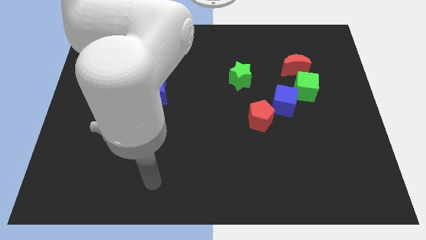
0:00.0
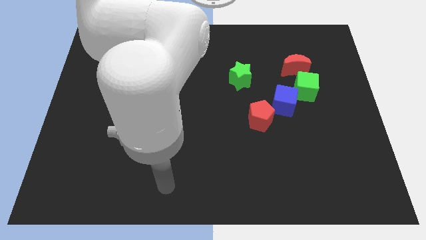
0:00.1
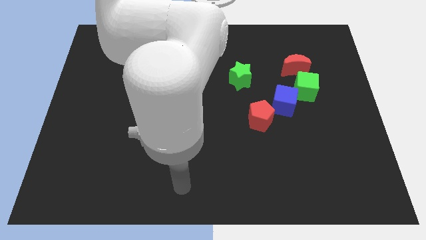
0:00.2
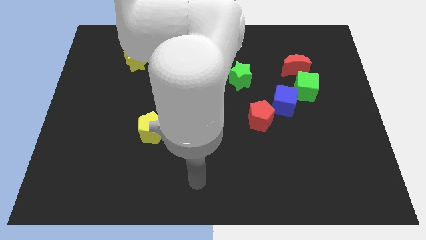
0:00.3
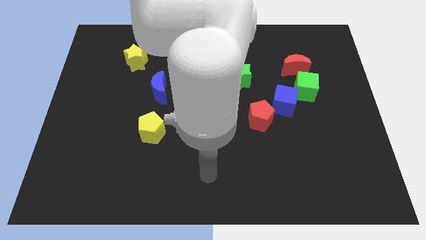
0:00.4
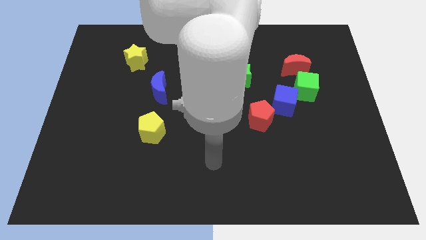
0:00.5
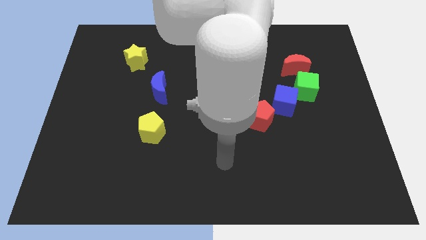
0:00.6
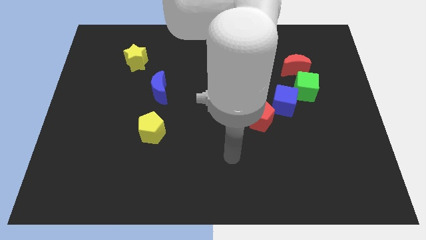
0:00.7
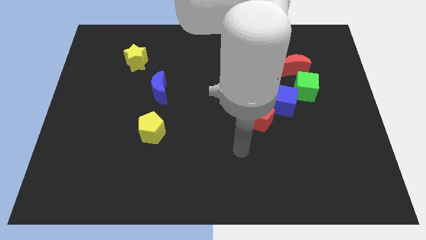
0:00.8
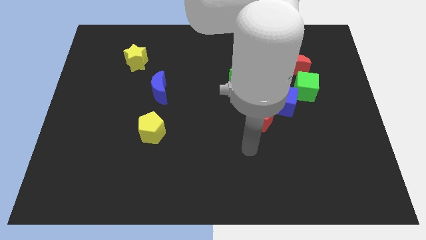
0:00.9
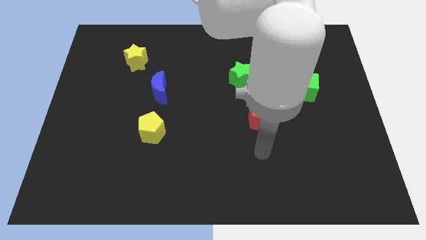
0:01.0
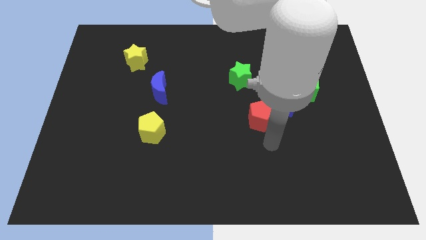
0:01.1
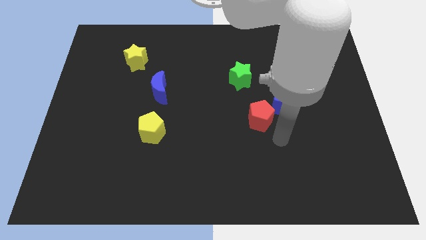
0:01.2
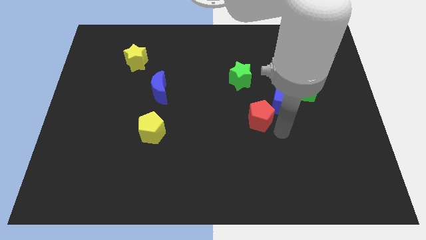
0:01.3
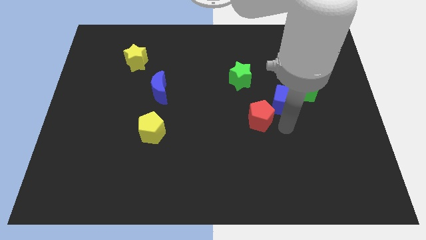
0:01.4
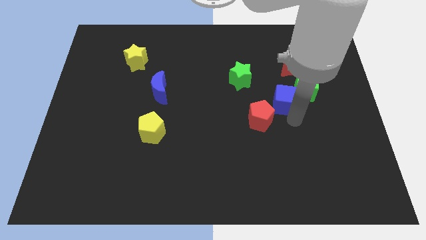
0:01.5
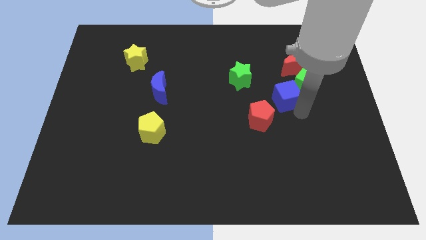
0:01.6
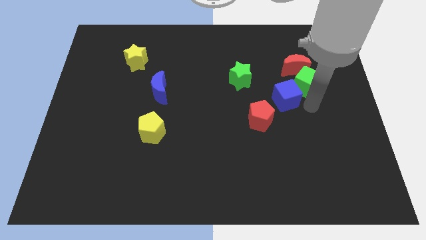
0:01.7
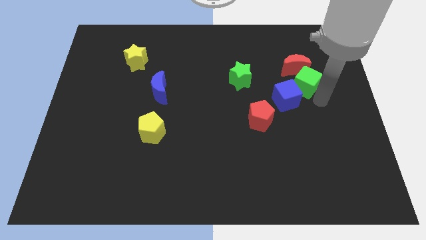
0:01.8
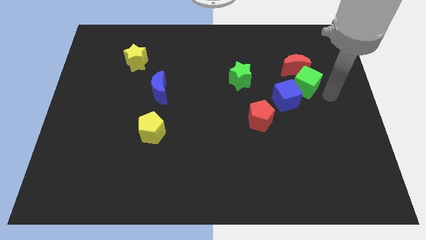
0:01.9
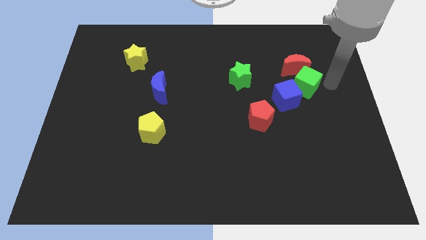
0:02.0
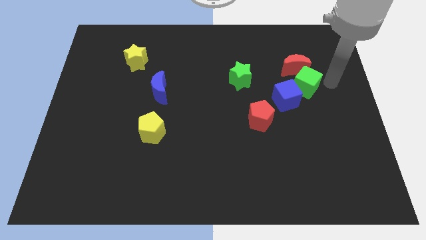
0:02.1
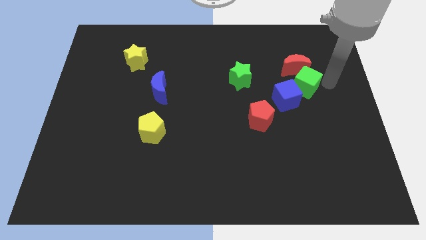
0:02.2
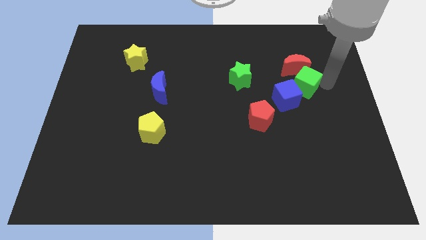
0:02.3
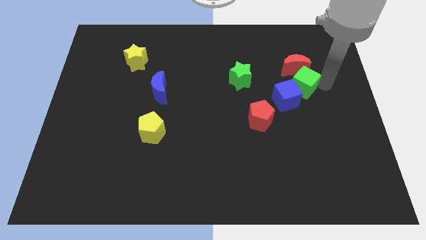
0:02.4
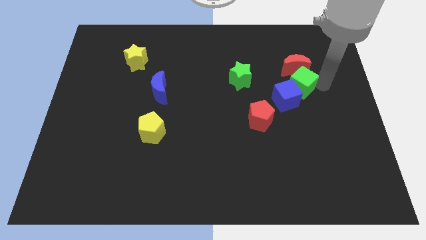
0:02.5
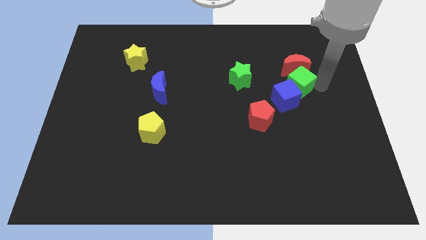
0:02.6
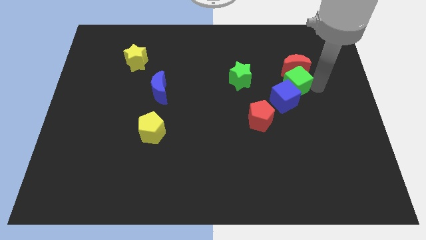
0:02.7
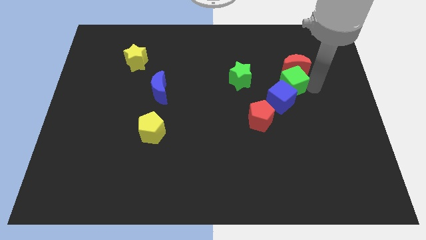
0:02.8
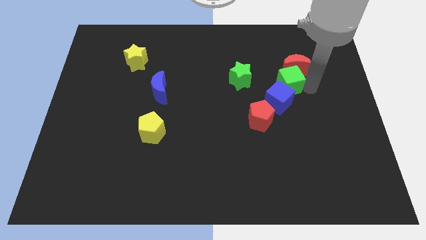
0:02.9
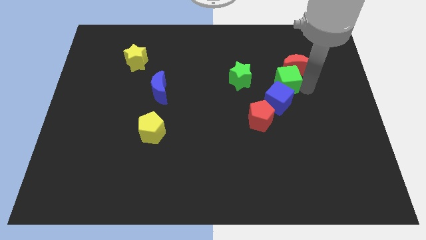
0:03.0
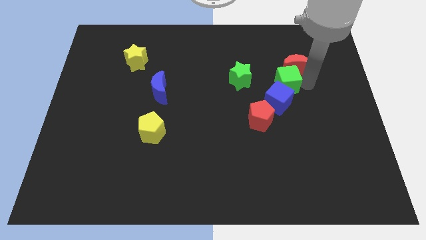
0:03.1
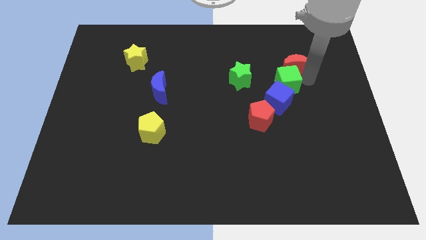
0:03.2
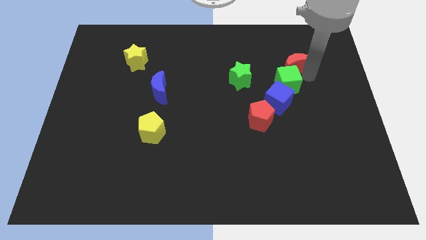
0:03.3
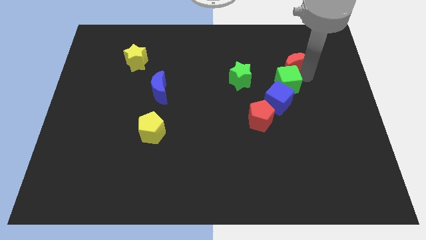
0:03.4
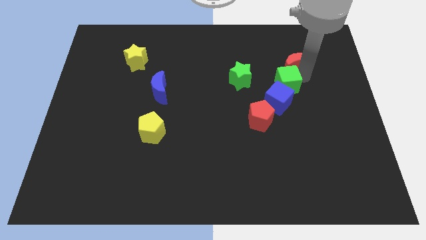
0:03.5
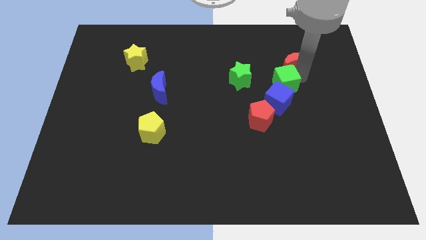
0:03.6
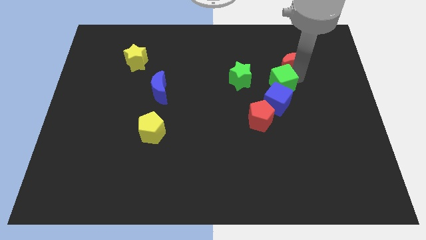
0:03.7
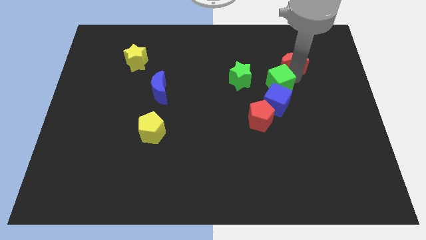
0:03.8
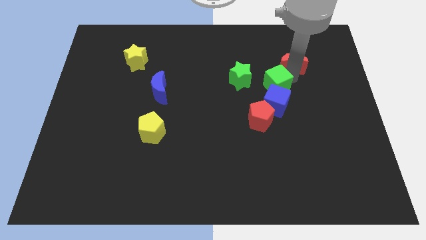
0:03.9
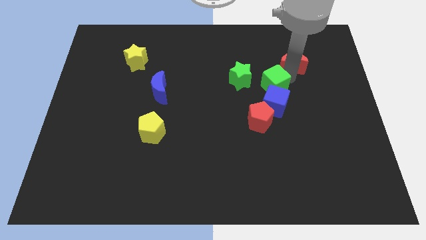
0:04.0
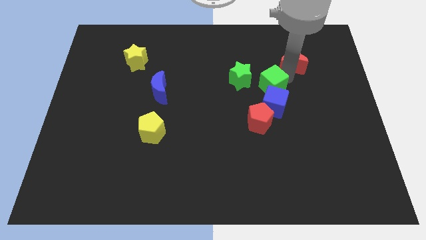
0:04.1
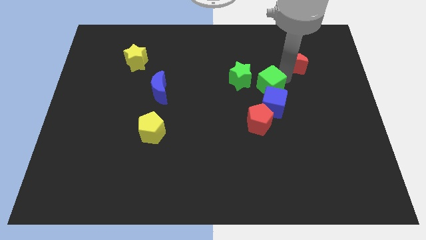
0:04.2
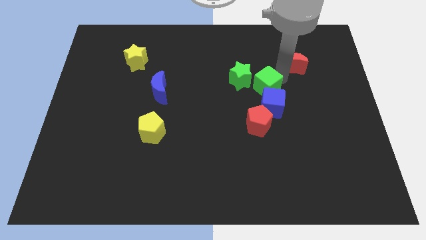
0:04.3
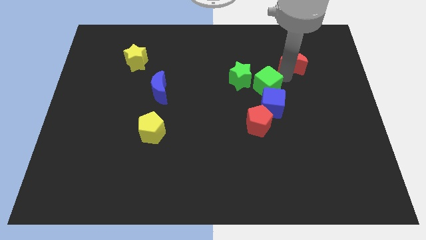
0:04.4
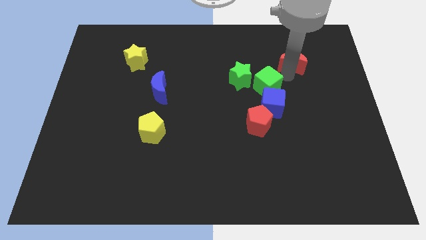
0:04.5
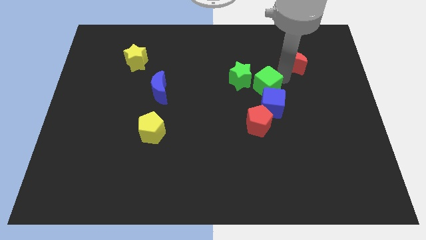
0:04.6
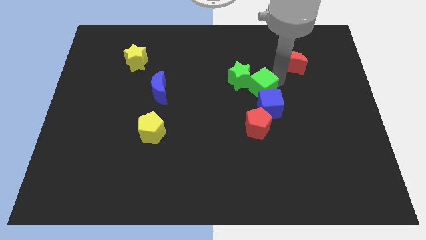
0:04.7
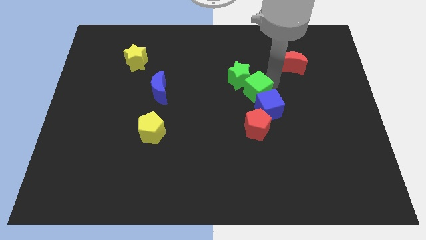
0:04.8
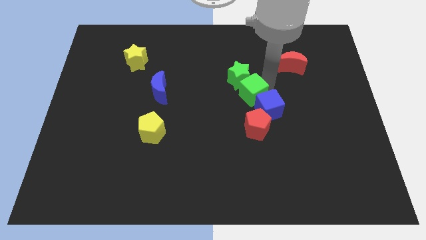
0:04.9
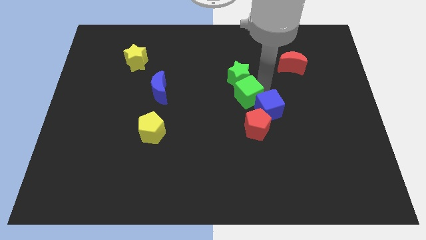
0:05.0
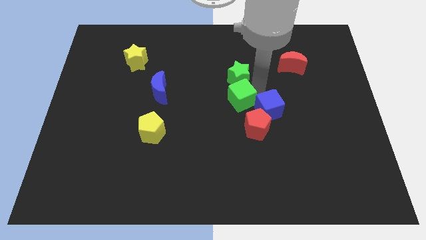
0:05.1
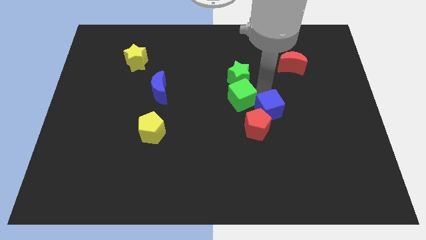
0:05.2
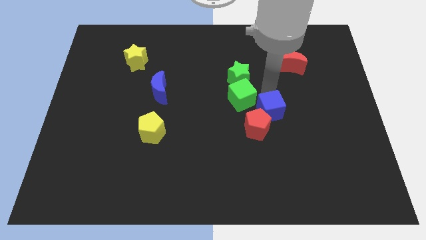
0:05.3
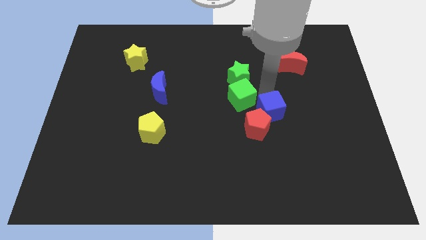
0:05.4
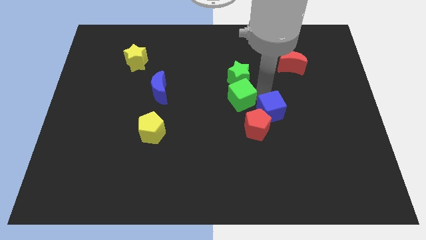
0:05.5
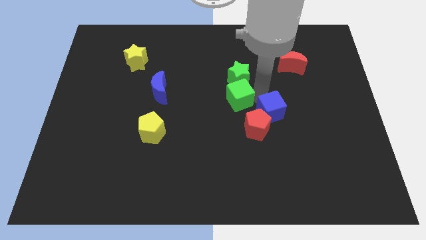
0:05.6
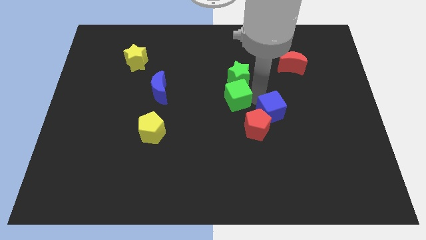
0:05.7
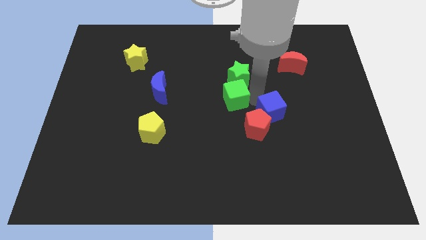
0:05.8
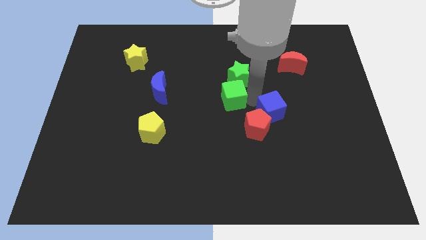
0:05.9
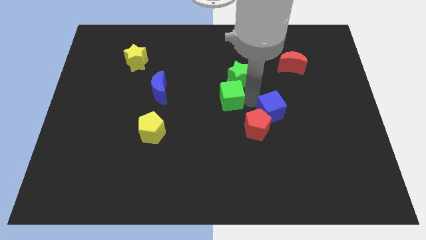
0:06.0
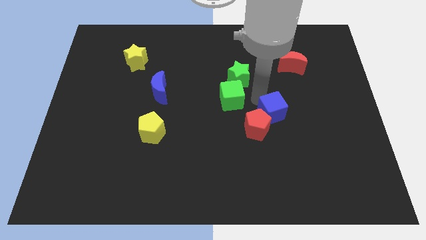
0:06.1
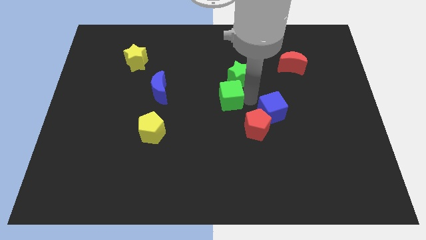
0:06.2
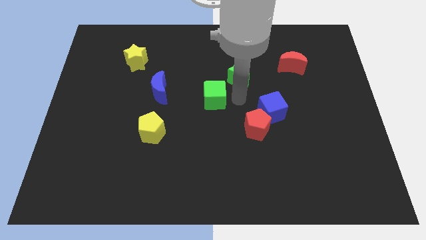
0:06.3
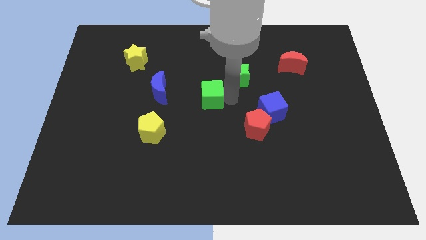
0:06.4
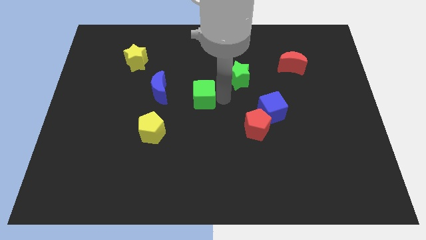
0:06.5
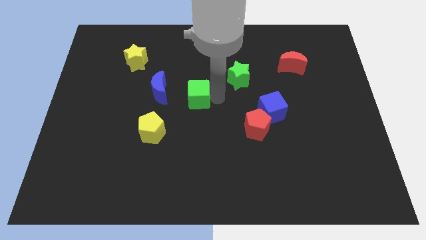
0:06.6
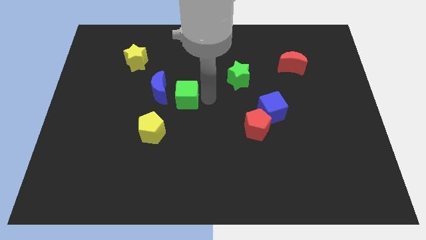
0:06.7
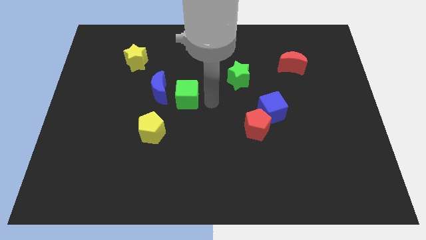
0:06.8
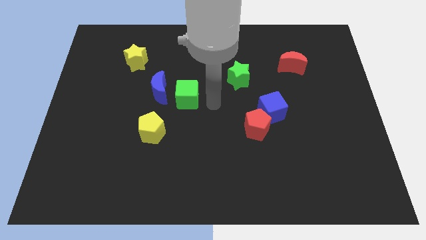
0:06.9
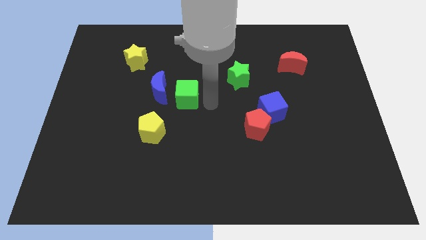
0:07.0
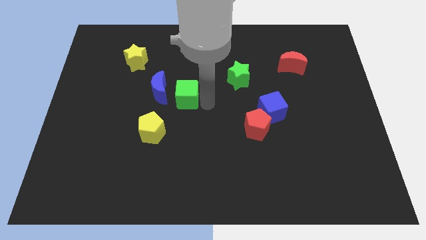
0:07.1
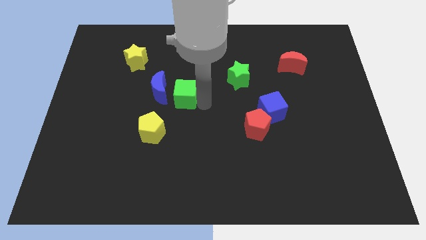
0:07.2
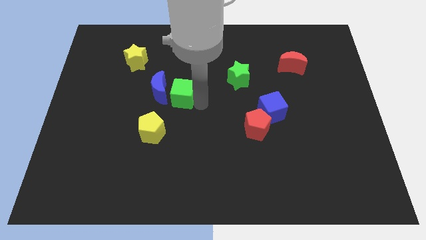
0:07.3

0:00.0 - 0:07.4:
move the green cube towards the blue moon
